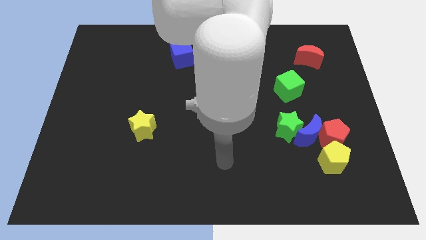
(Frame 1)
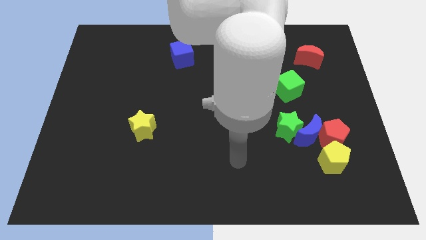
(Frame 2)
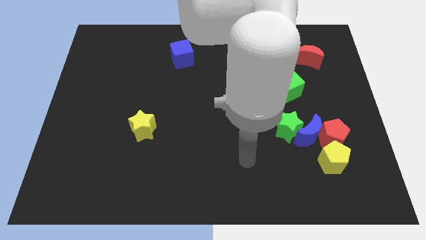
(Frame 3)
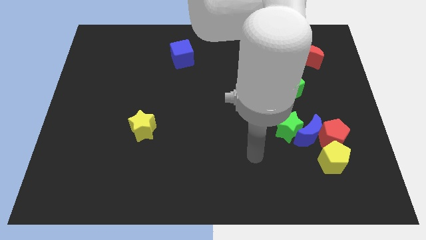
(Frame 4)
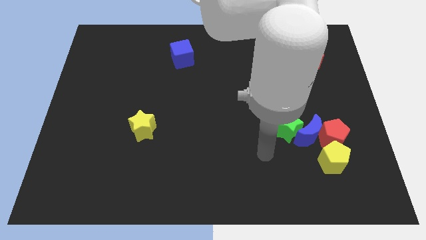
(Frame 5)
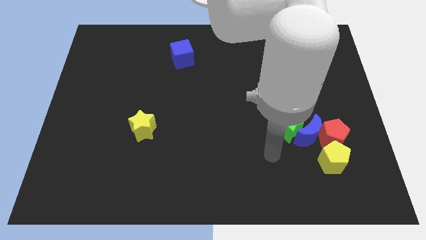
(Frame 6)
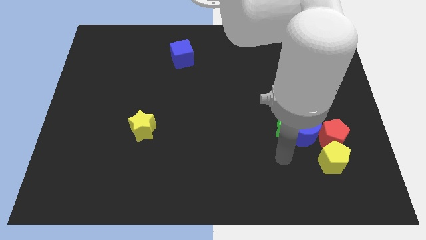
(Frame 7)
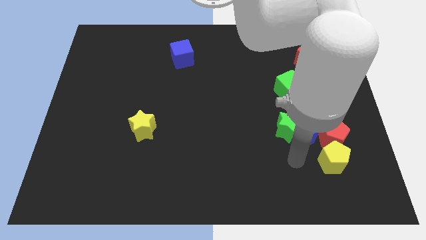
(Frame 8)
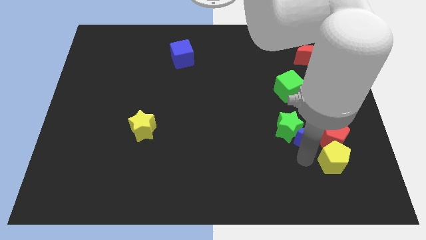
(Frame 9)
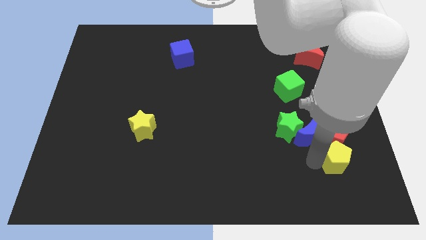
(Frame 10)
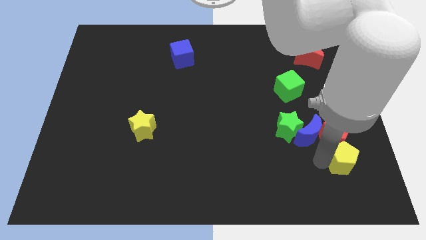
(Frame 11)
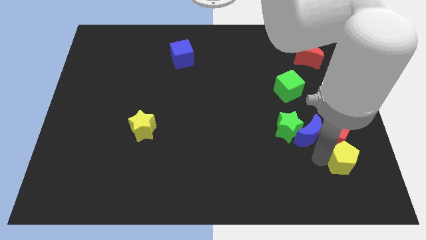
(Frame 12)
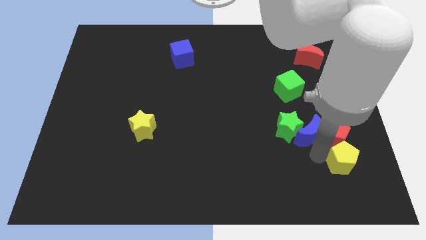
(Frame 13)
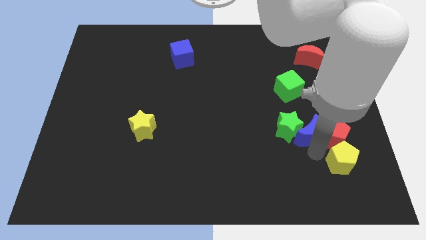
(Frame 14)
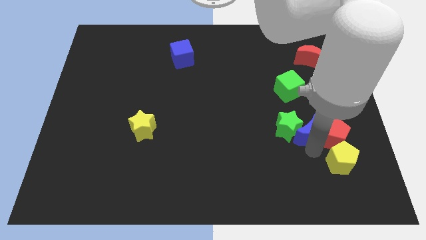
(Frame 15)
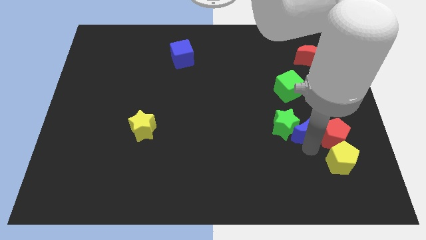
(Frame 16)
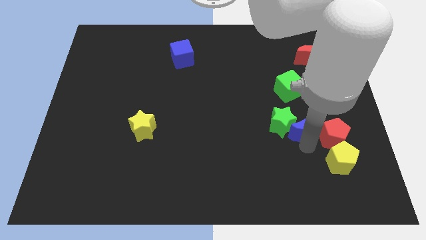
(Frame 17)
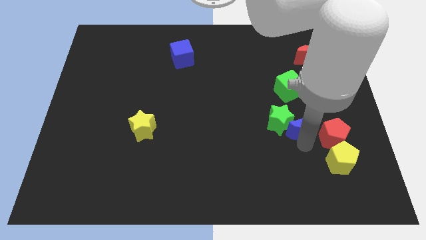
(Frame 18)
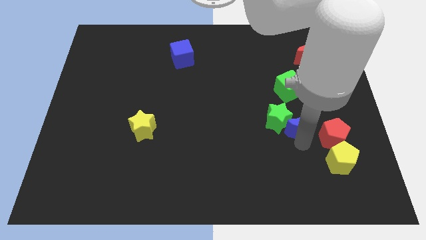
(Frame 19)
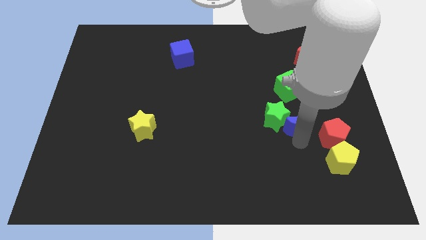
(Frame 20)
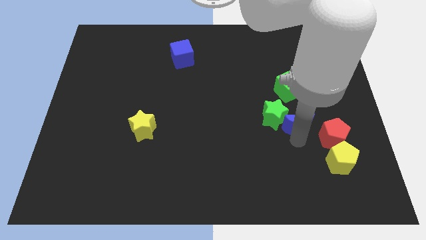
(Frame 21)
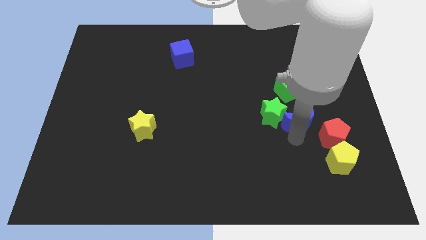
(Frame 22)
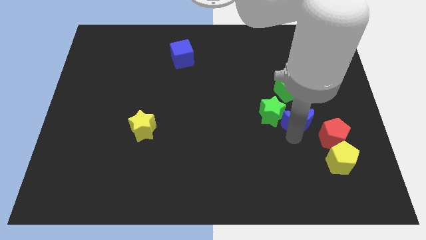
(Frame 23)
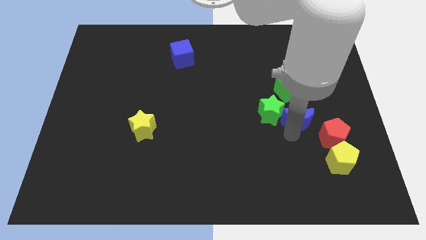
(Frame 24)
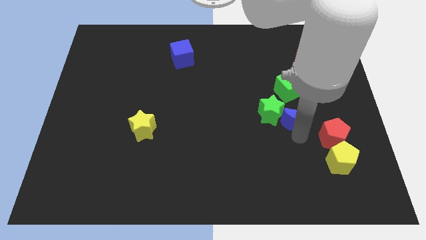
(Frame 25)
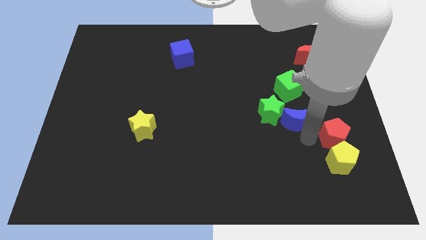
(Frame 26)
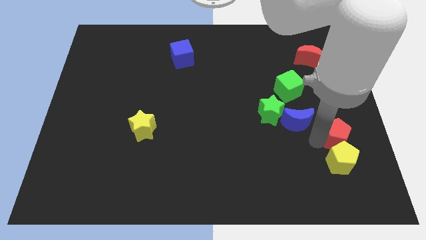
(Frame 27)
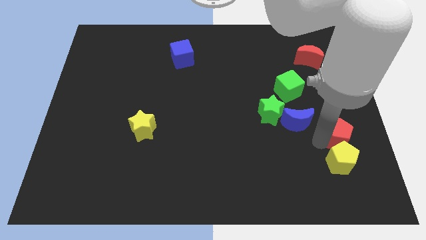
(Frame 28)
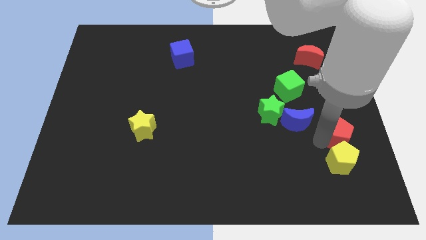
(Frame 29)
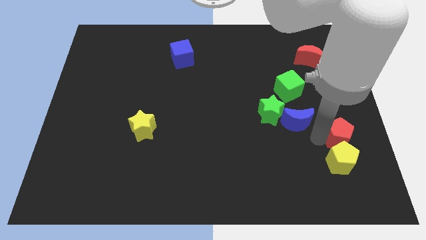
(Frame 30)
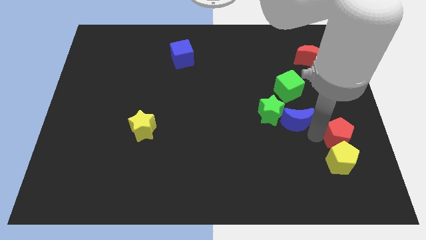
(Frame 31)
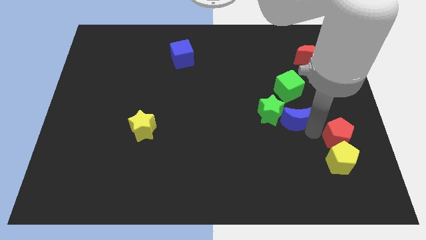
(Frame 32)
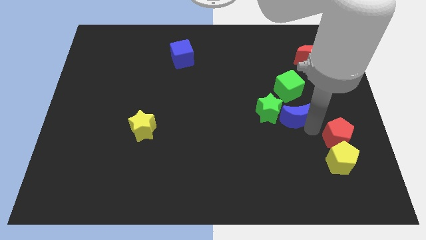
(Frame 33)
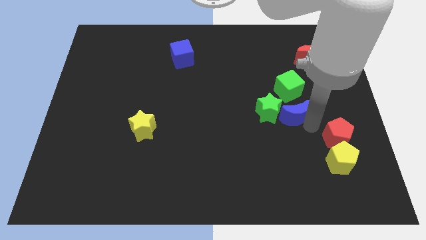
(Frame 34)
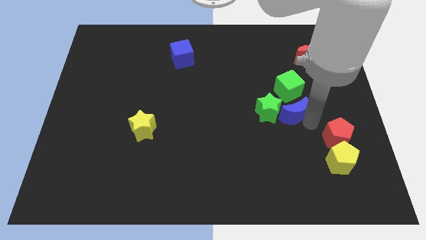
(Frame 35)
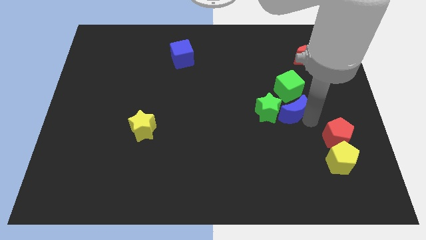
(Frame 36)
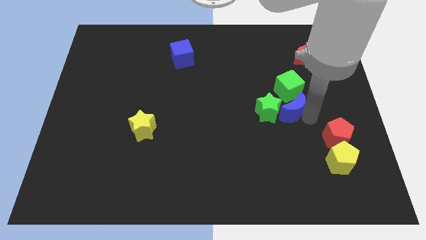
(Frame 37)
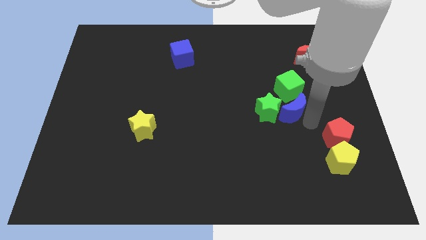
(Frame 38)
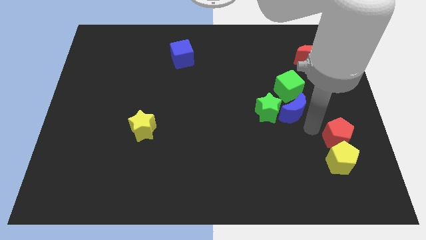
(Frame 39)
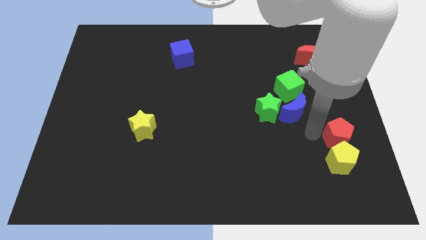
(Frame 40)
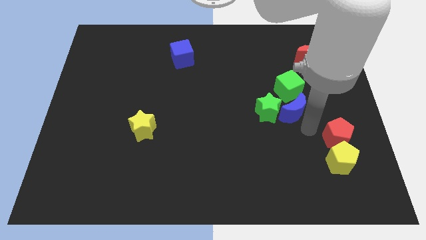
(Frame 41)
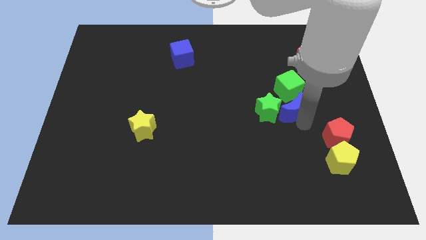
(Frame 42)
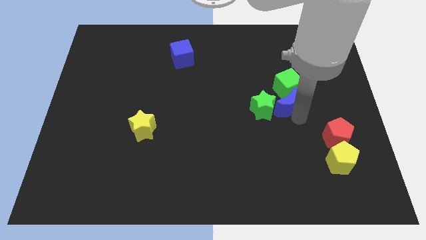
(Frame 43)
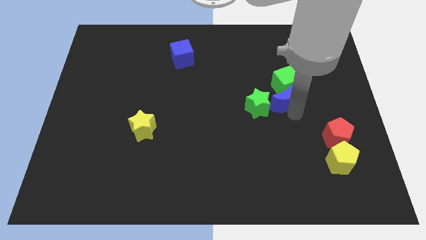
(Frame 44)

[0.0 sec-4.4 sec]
separate the blue moon from the green star, red pentagon, and yellow pentagon

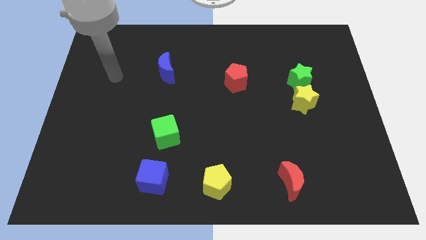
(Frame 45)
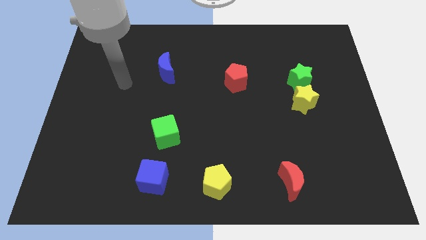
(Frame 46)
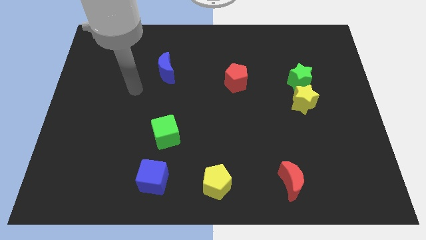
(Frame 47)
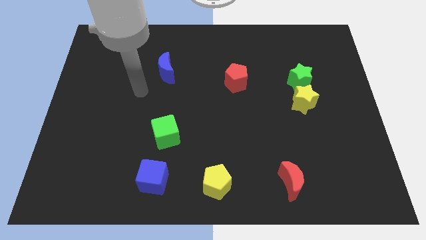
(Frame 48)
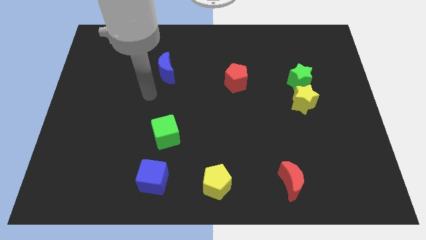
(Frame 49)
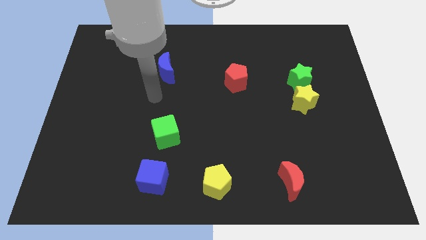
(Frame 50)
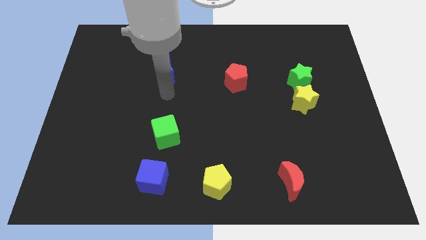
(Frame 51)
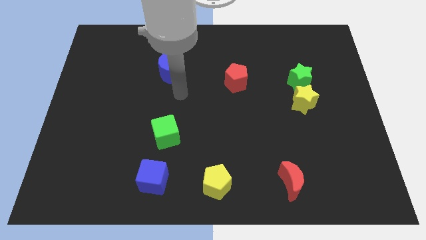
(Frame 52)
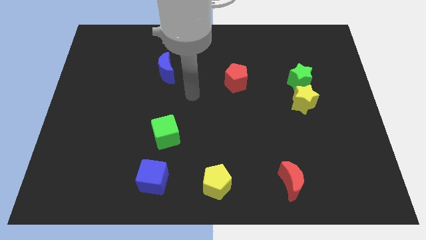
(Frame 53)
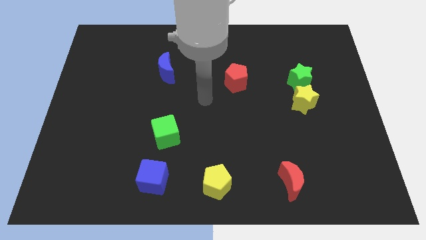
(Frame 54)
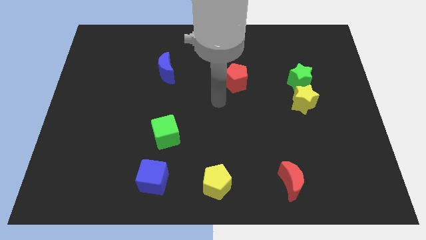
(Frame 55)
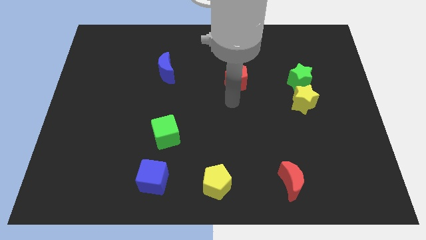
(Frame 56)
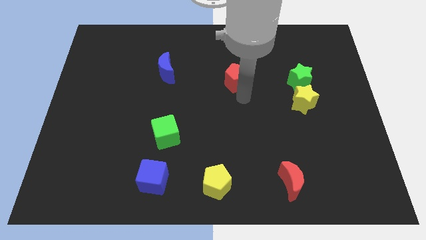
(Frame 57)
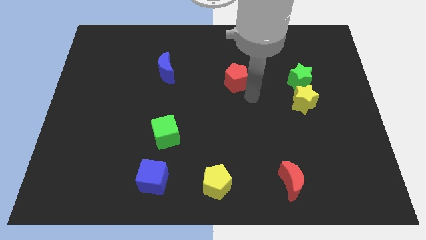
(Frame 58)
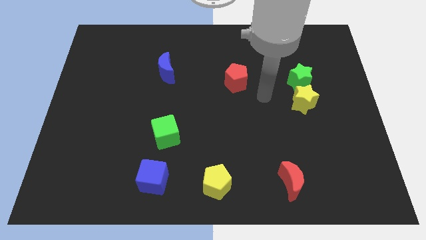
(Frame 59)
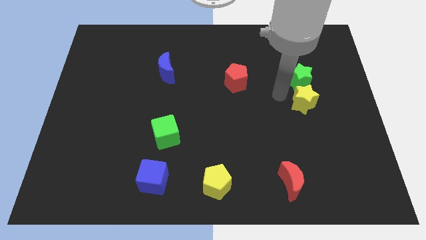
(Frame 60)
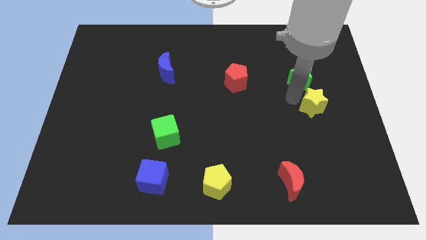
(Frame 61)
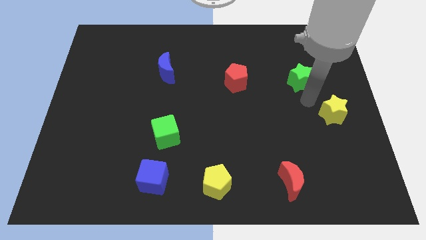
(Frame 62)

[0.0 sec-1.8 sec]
separate the green star from the yellow star

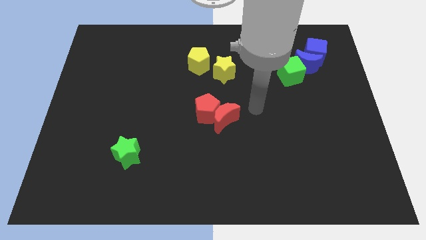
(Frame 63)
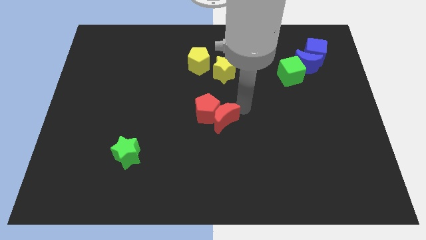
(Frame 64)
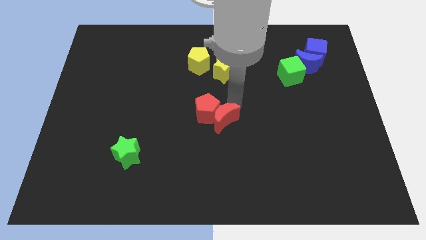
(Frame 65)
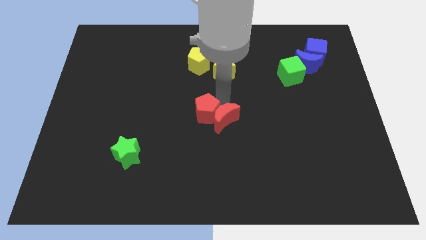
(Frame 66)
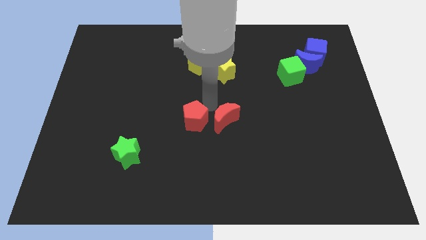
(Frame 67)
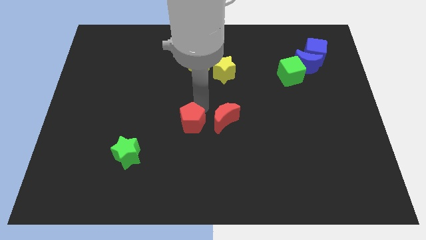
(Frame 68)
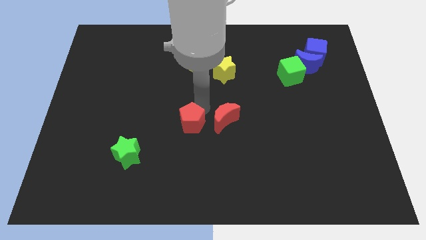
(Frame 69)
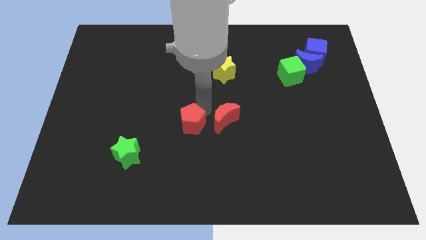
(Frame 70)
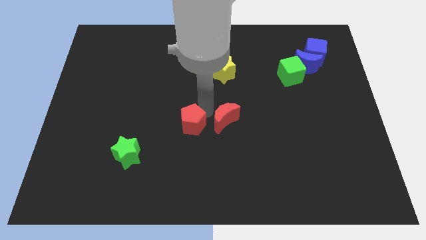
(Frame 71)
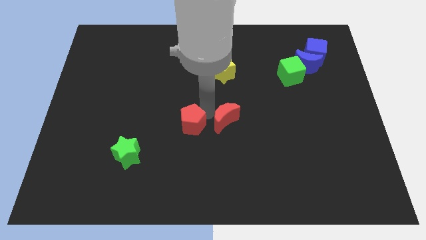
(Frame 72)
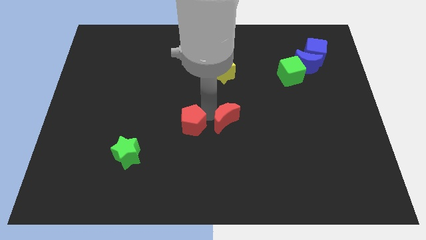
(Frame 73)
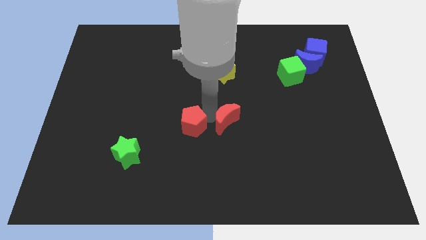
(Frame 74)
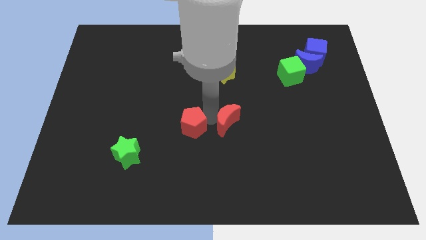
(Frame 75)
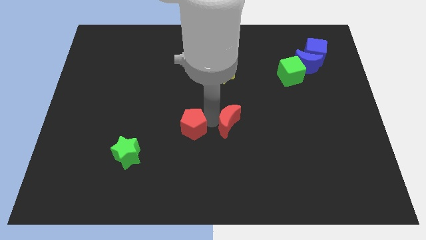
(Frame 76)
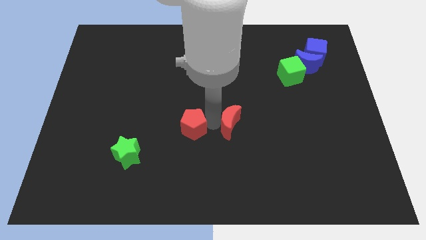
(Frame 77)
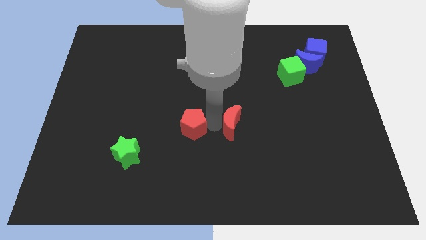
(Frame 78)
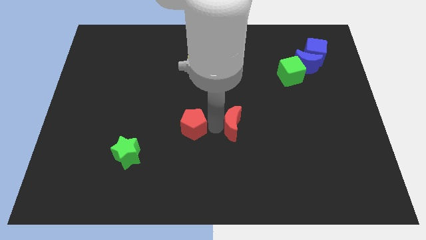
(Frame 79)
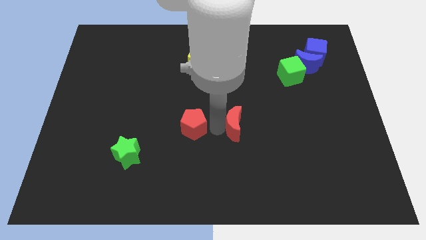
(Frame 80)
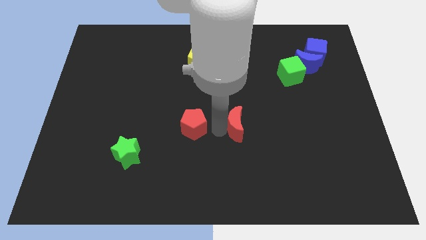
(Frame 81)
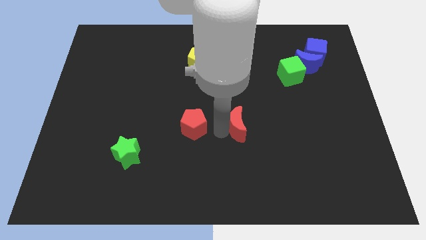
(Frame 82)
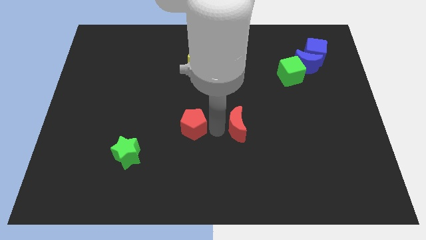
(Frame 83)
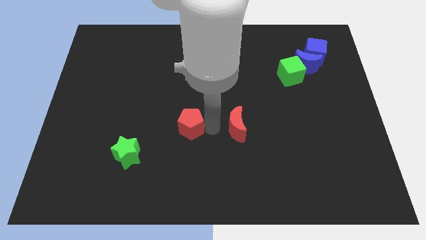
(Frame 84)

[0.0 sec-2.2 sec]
pull the red moon apart from the red pentagon

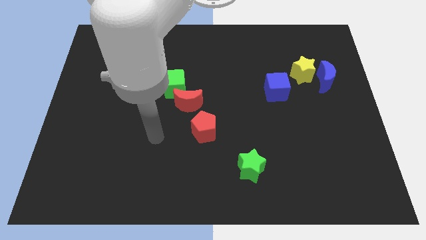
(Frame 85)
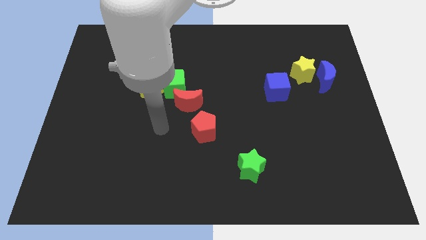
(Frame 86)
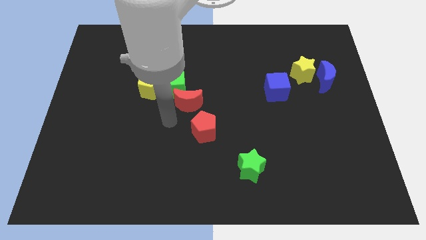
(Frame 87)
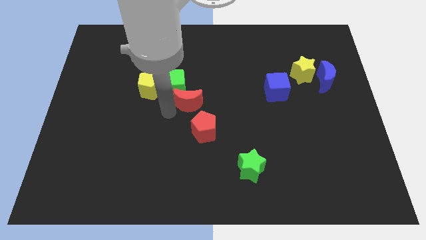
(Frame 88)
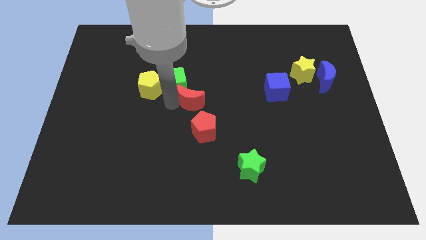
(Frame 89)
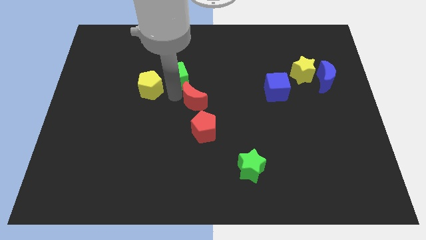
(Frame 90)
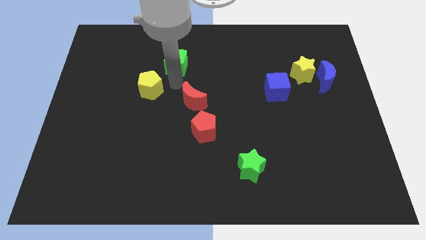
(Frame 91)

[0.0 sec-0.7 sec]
move the yellow pentagon away from the green cube

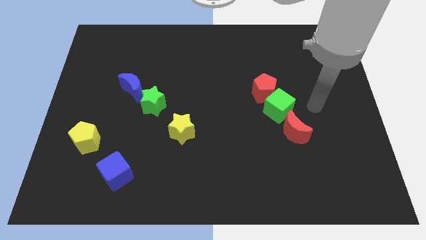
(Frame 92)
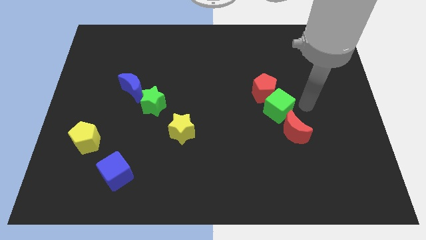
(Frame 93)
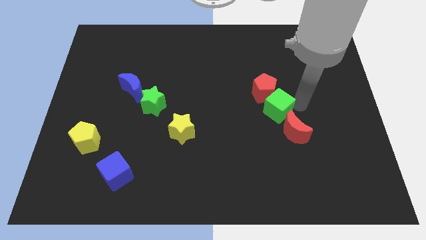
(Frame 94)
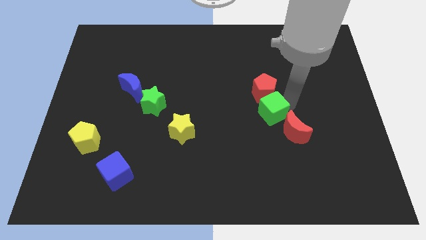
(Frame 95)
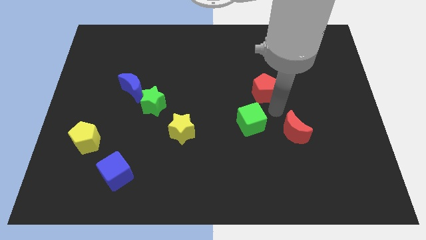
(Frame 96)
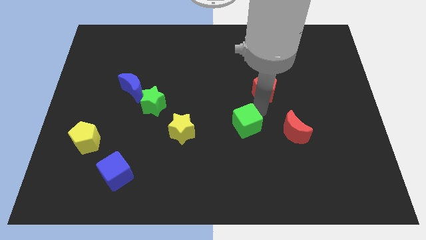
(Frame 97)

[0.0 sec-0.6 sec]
move the red pentagon away from the green cube
